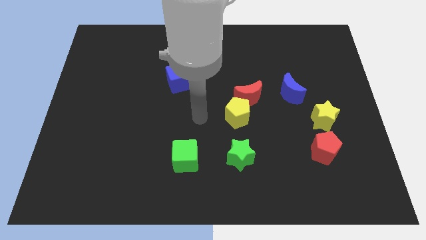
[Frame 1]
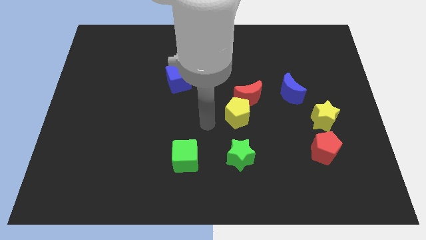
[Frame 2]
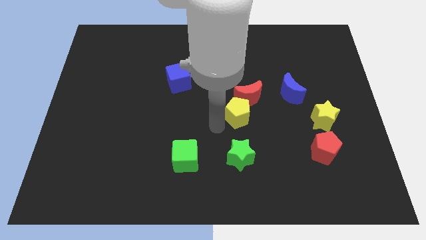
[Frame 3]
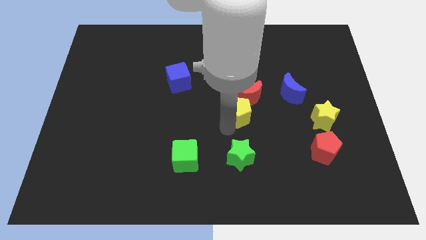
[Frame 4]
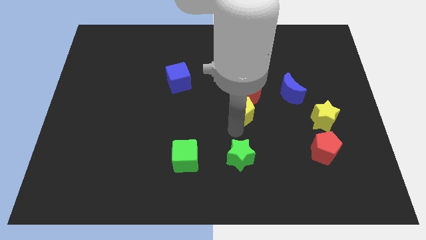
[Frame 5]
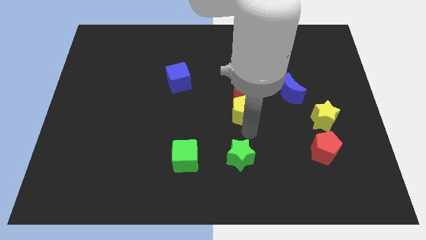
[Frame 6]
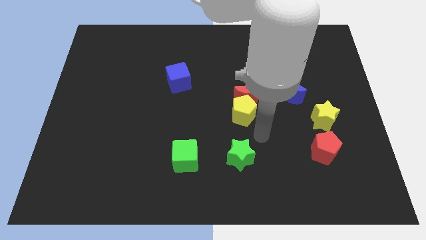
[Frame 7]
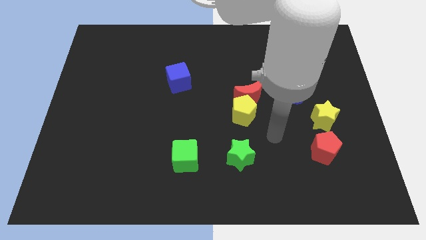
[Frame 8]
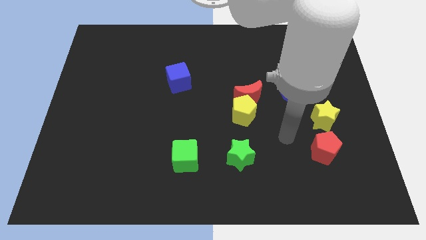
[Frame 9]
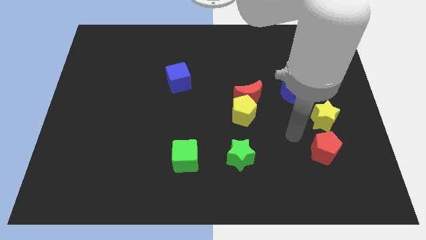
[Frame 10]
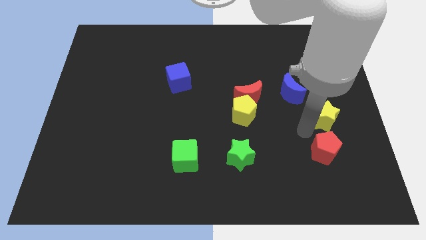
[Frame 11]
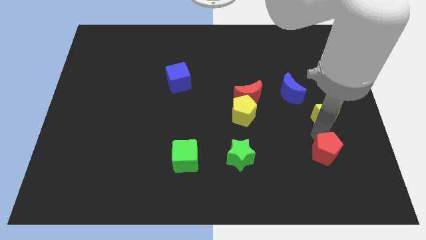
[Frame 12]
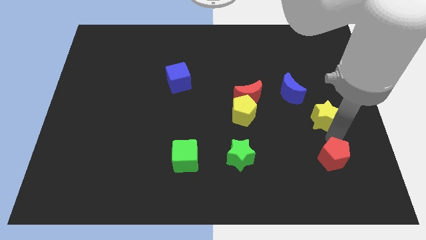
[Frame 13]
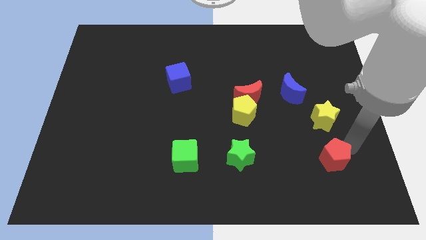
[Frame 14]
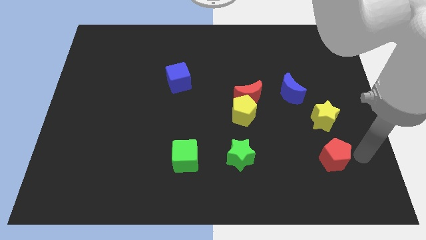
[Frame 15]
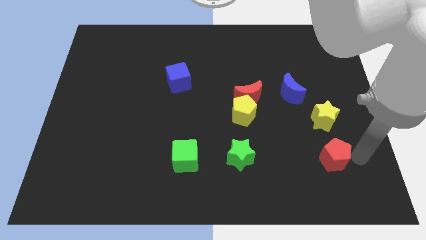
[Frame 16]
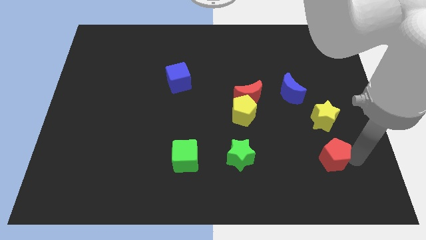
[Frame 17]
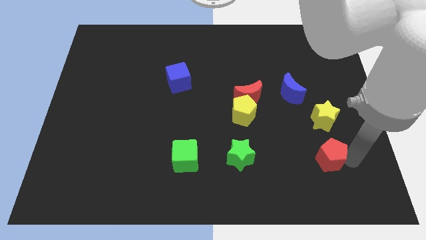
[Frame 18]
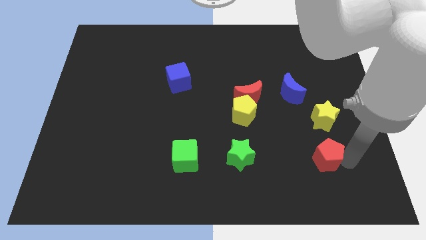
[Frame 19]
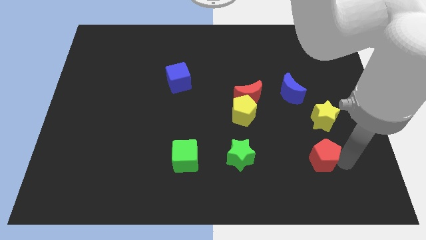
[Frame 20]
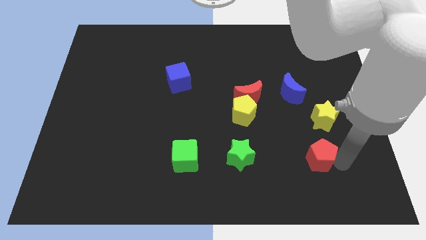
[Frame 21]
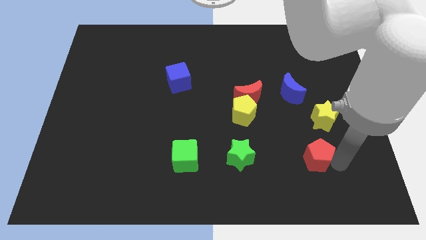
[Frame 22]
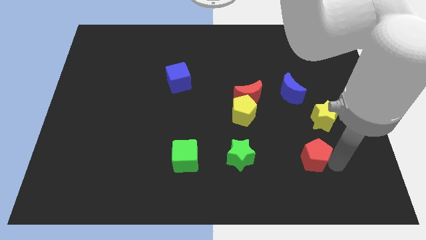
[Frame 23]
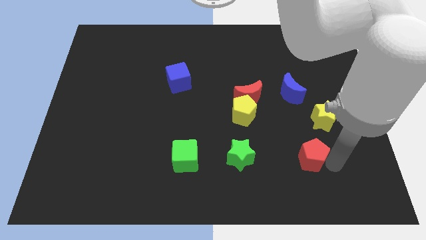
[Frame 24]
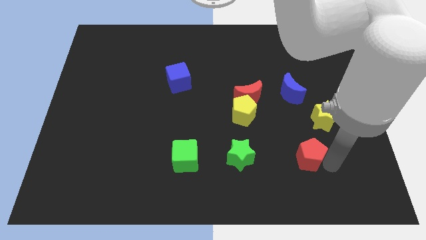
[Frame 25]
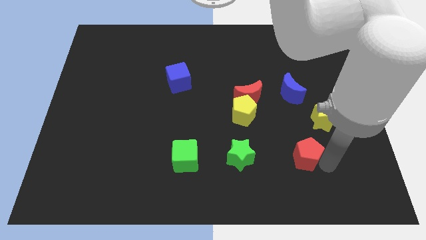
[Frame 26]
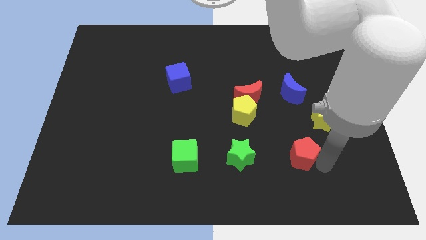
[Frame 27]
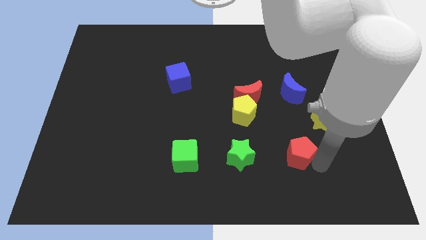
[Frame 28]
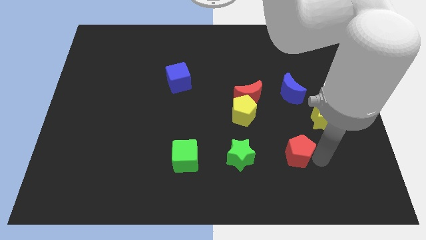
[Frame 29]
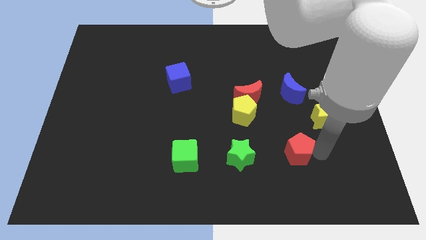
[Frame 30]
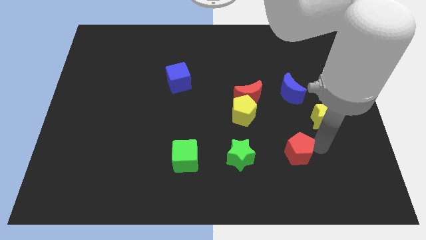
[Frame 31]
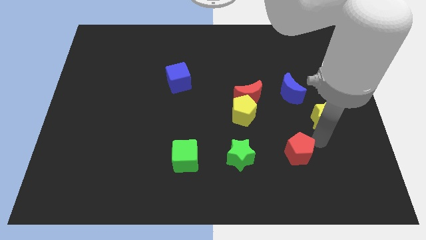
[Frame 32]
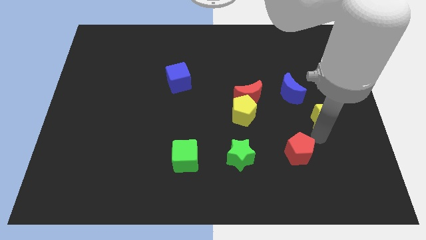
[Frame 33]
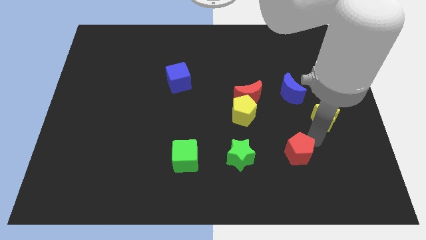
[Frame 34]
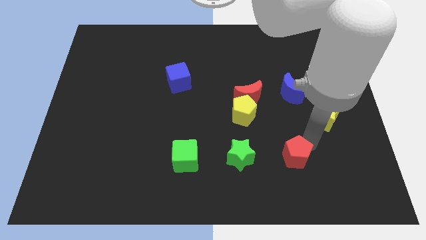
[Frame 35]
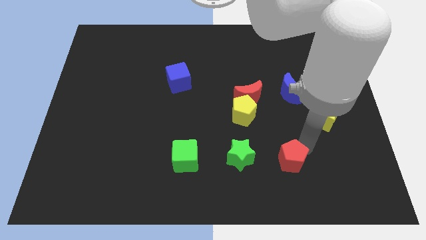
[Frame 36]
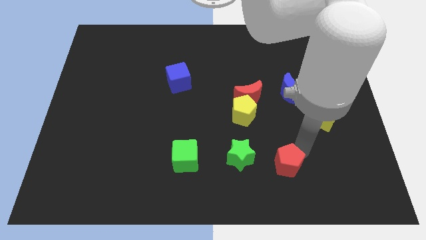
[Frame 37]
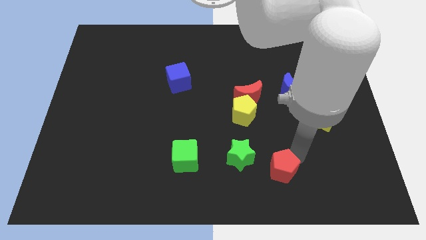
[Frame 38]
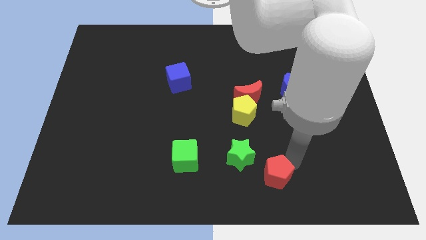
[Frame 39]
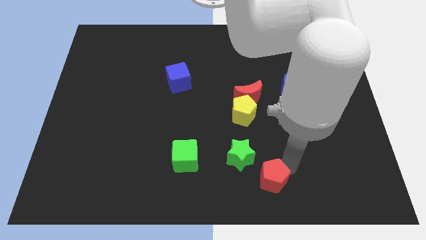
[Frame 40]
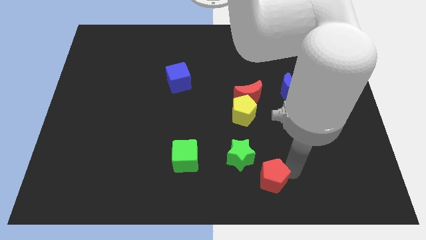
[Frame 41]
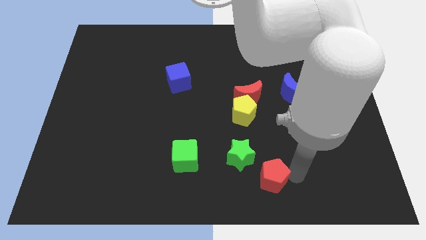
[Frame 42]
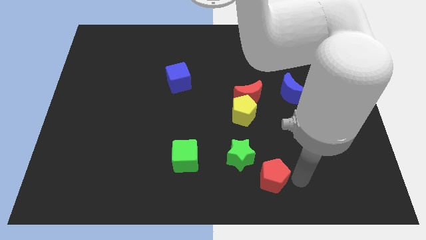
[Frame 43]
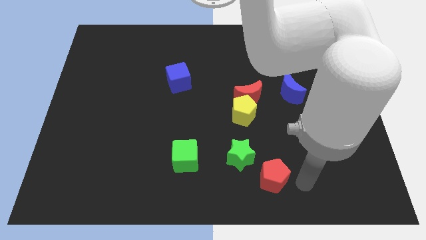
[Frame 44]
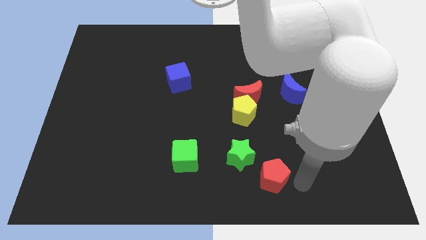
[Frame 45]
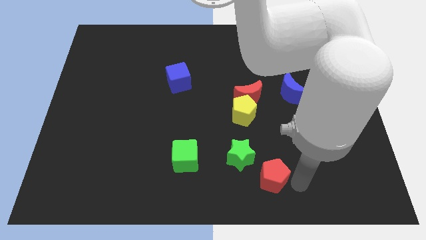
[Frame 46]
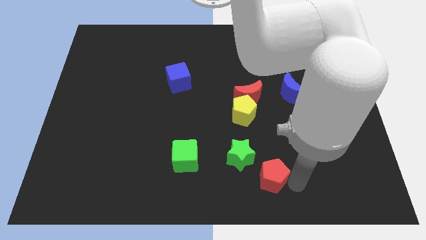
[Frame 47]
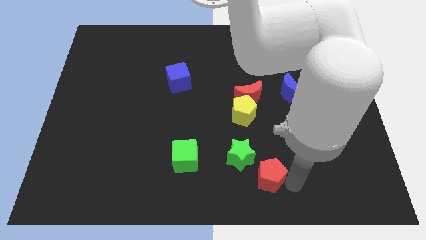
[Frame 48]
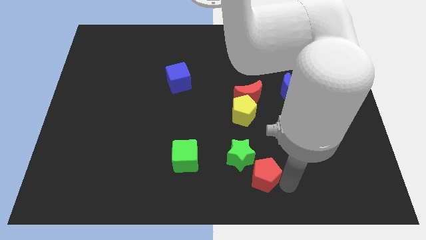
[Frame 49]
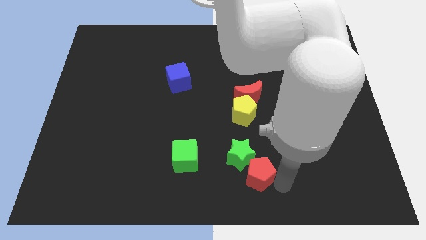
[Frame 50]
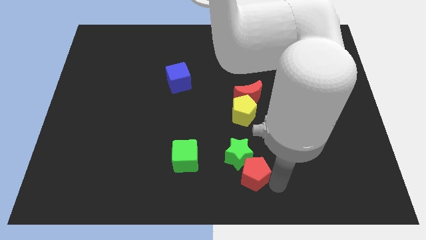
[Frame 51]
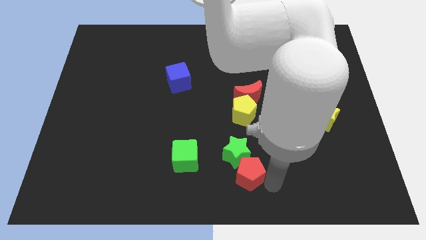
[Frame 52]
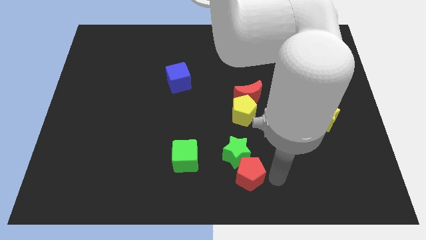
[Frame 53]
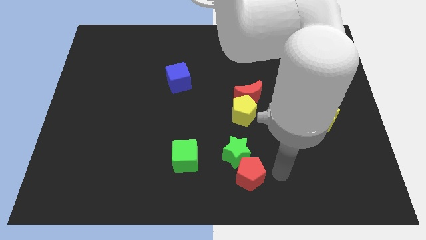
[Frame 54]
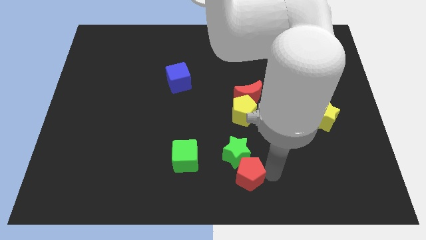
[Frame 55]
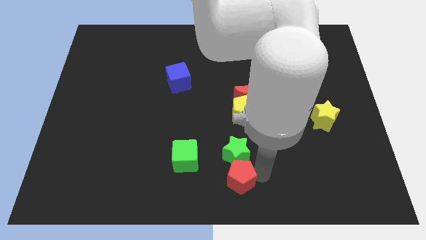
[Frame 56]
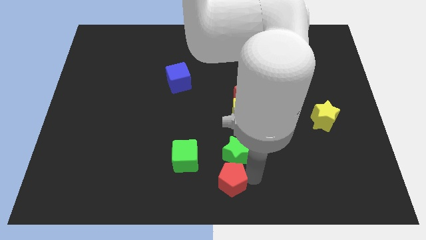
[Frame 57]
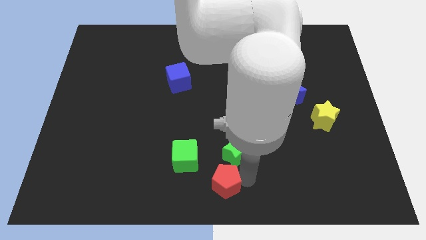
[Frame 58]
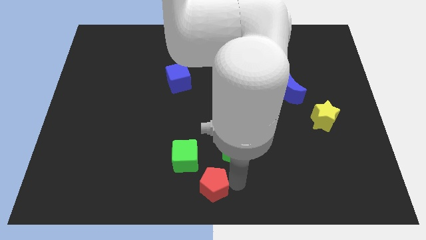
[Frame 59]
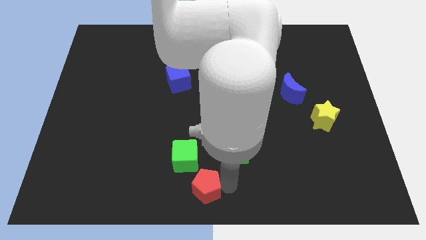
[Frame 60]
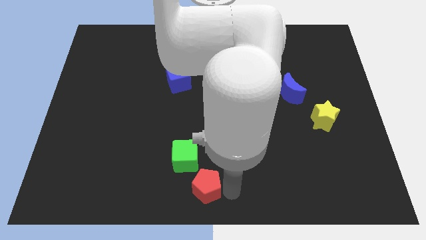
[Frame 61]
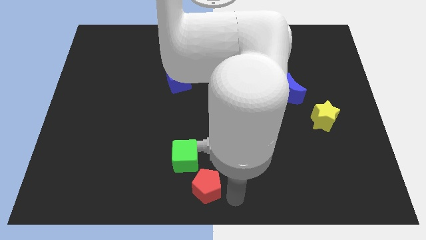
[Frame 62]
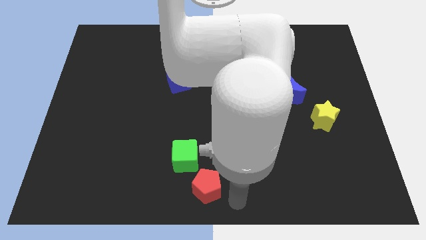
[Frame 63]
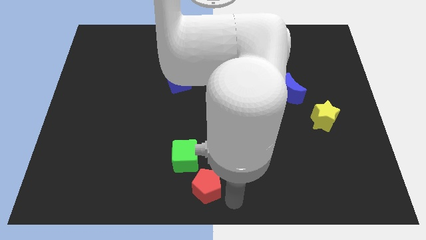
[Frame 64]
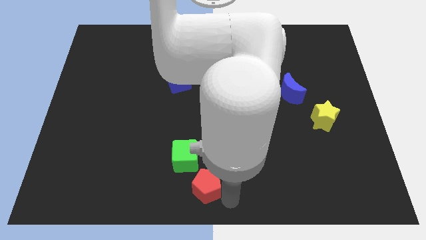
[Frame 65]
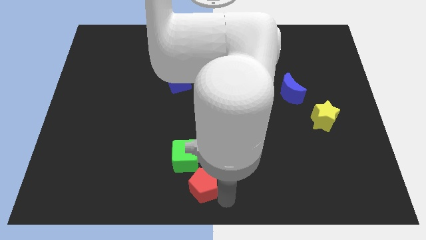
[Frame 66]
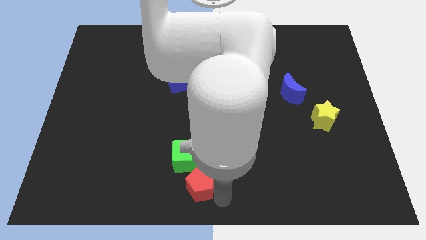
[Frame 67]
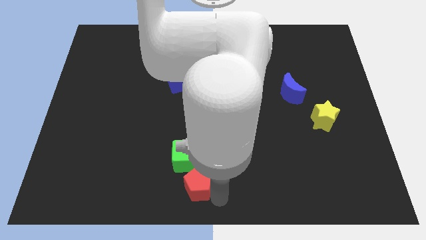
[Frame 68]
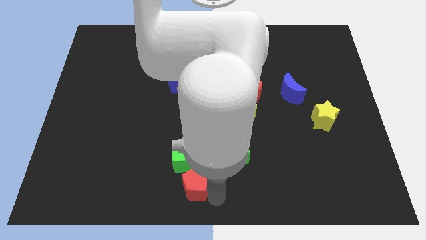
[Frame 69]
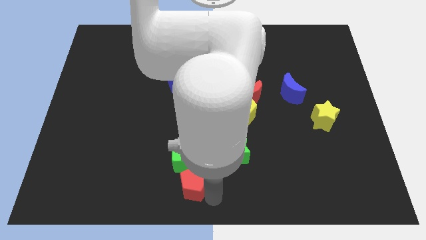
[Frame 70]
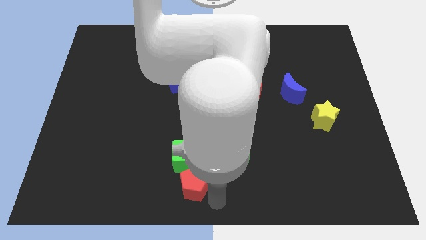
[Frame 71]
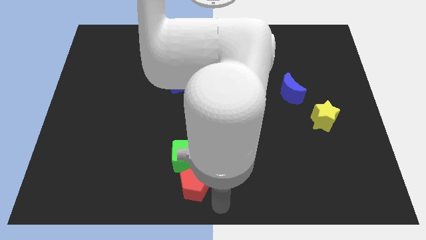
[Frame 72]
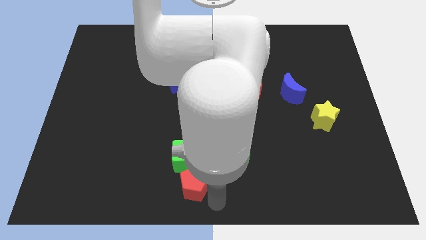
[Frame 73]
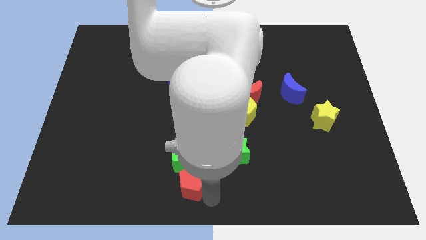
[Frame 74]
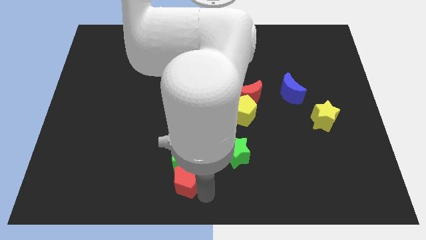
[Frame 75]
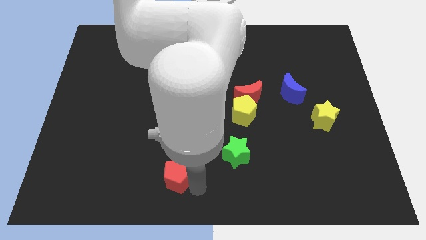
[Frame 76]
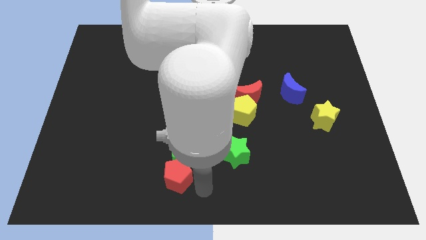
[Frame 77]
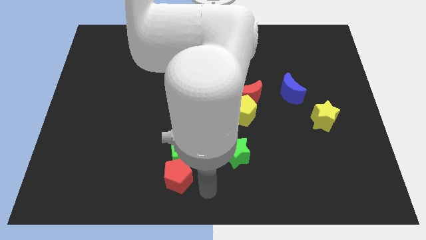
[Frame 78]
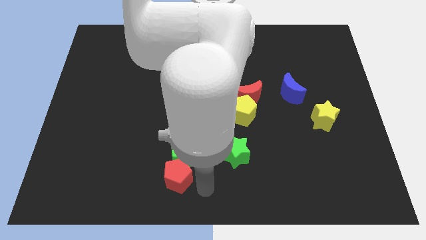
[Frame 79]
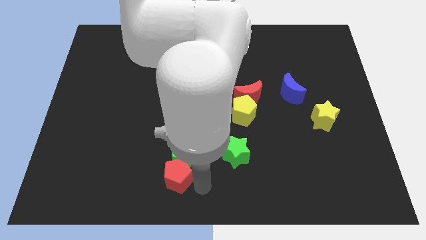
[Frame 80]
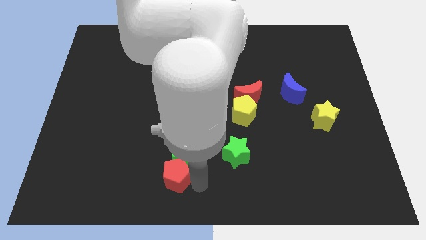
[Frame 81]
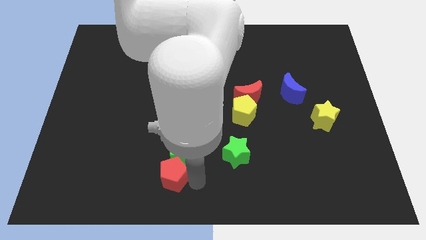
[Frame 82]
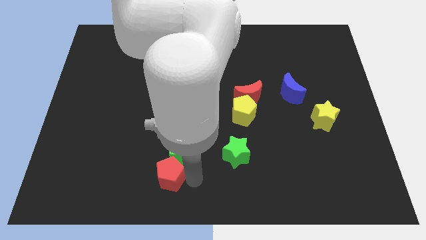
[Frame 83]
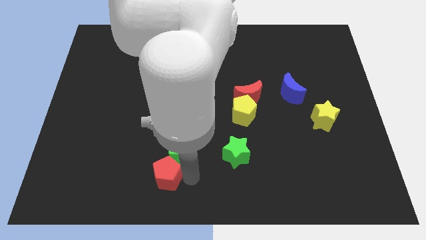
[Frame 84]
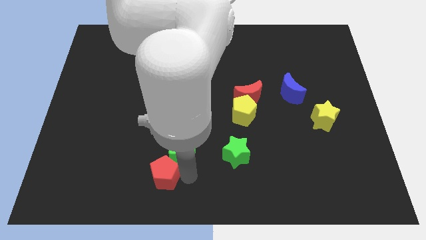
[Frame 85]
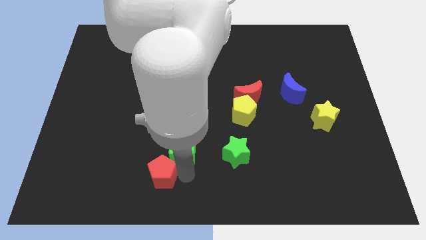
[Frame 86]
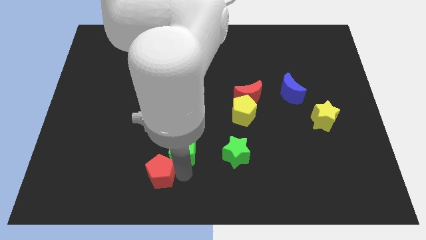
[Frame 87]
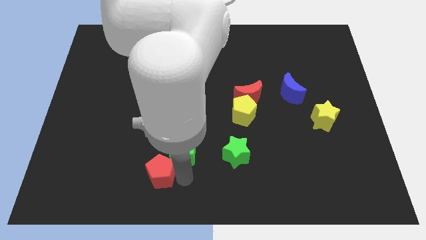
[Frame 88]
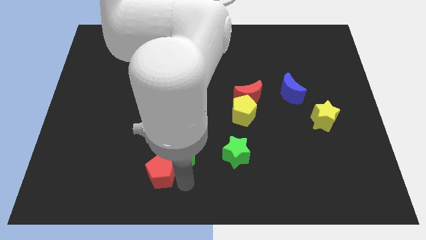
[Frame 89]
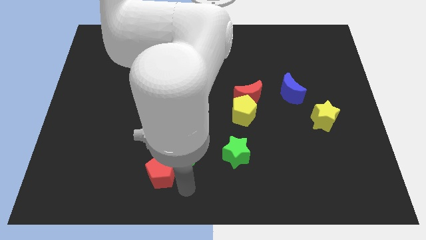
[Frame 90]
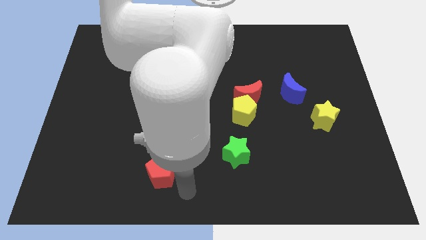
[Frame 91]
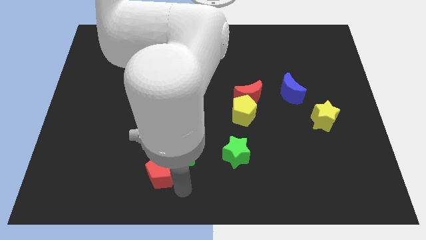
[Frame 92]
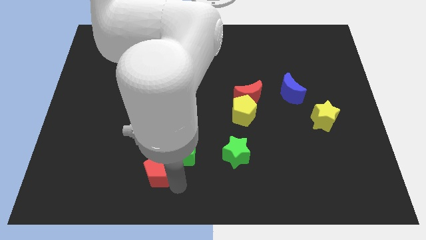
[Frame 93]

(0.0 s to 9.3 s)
slide the red pentagon to the left of the green cube
